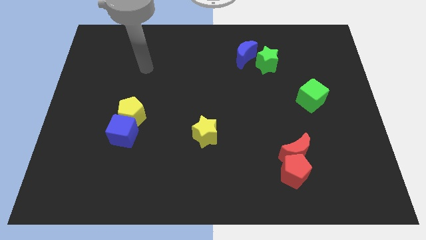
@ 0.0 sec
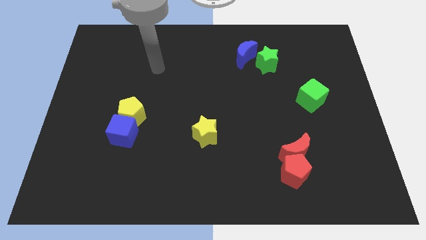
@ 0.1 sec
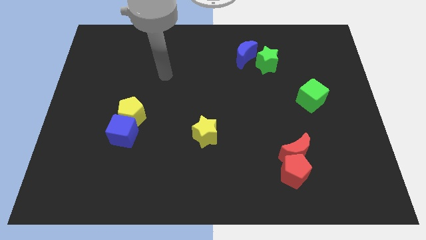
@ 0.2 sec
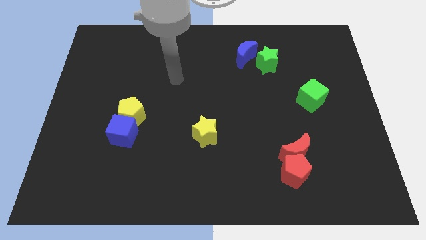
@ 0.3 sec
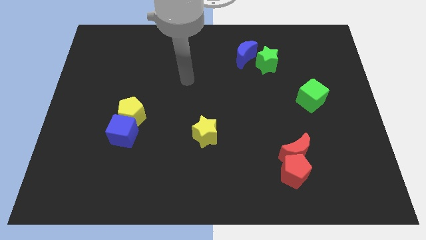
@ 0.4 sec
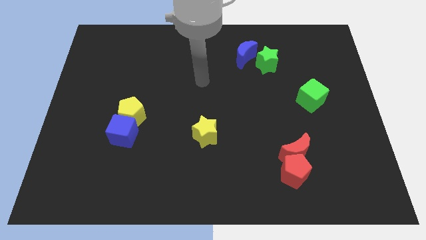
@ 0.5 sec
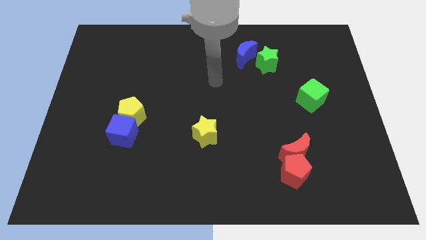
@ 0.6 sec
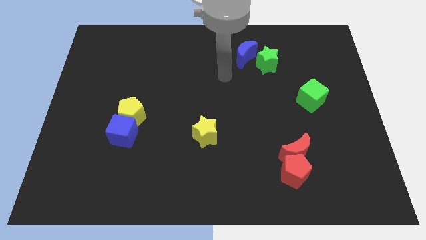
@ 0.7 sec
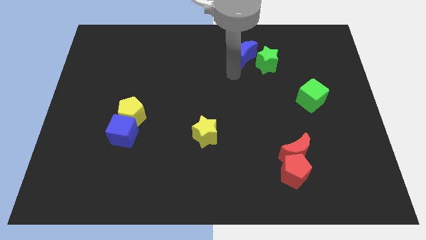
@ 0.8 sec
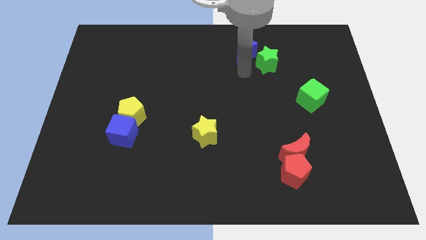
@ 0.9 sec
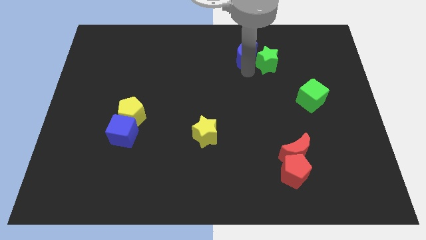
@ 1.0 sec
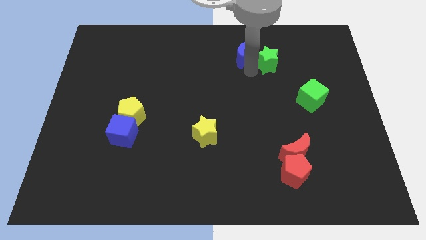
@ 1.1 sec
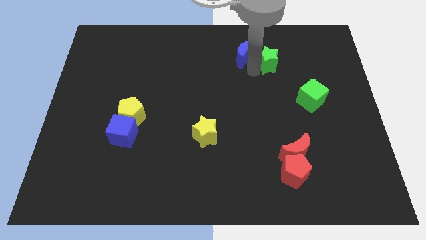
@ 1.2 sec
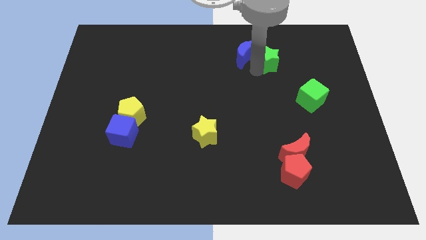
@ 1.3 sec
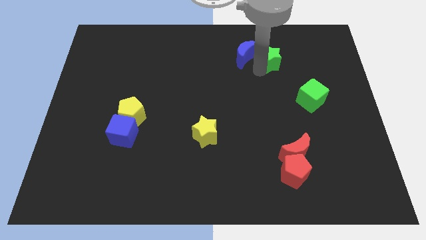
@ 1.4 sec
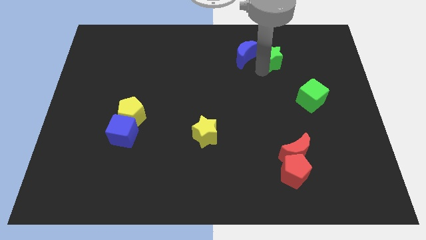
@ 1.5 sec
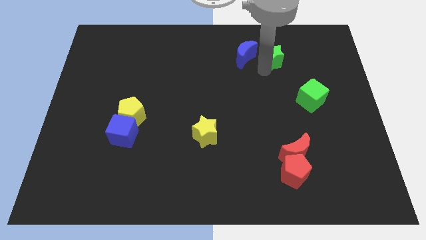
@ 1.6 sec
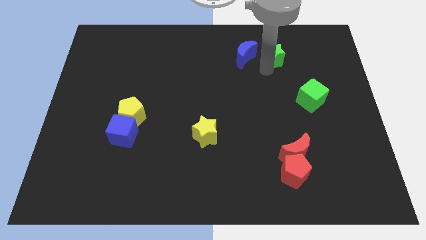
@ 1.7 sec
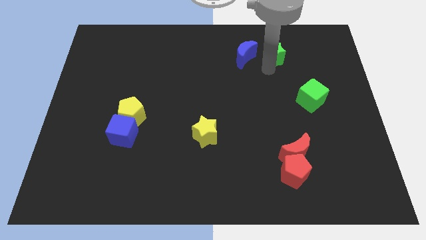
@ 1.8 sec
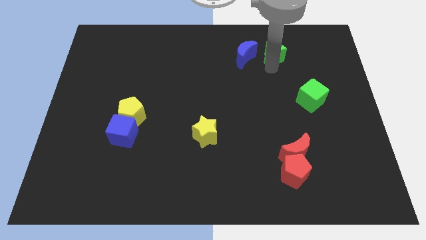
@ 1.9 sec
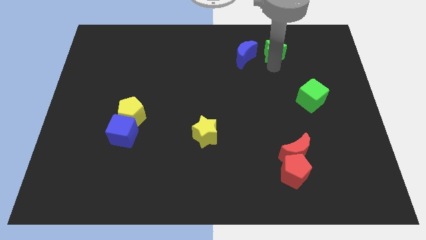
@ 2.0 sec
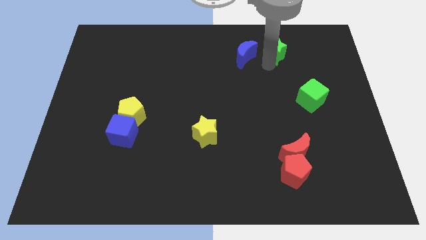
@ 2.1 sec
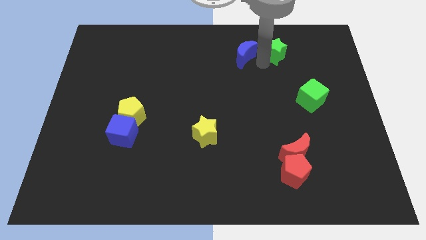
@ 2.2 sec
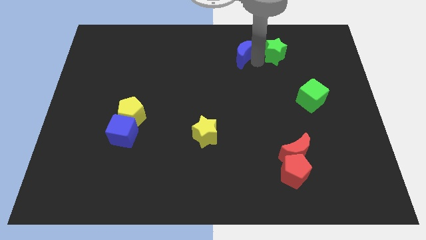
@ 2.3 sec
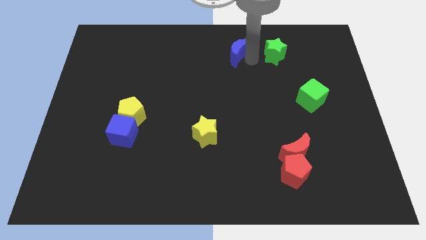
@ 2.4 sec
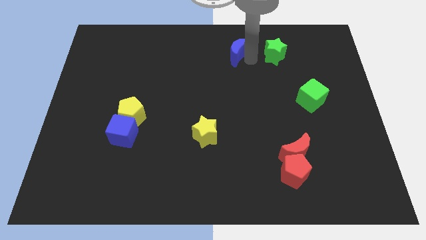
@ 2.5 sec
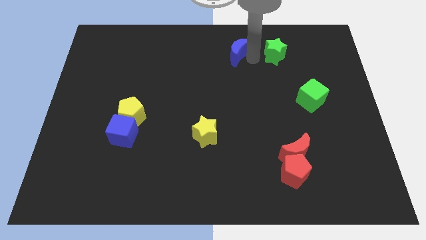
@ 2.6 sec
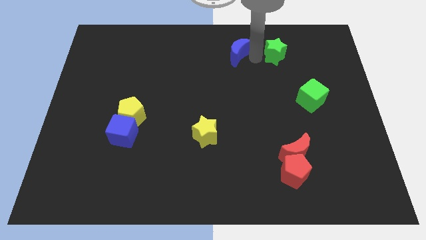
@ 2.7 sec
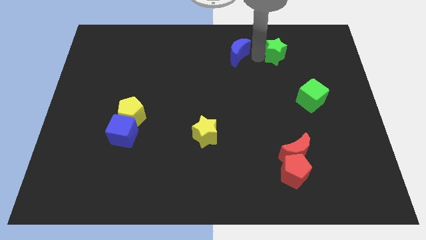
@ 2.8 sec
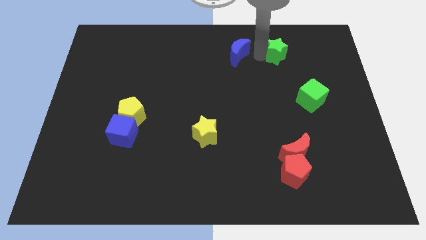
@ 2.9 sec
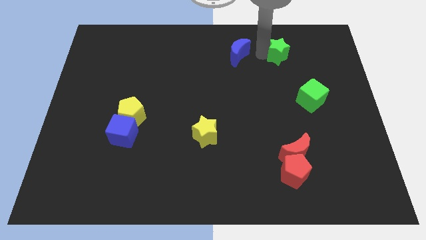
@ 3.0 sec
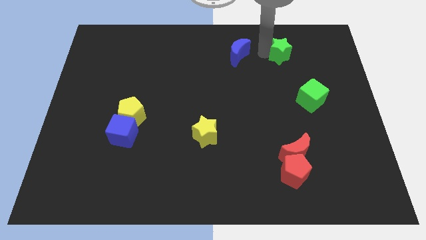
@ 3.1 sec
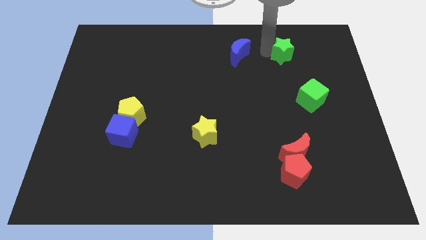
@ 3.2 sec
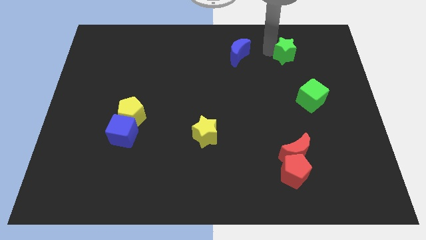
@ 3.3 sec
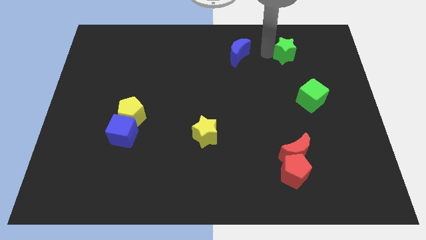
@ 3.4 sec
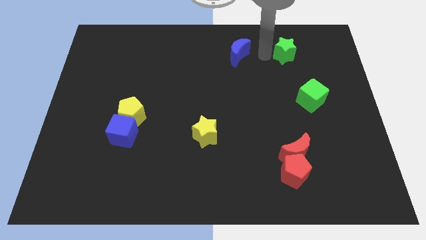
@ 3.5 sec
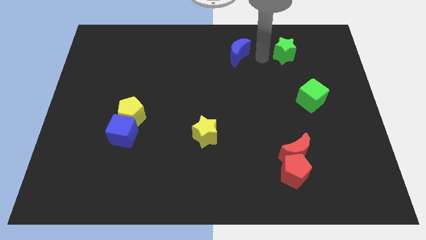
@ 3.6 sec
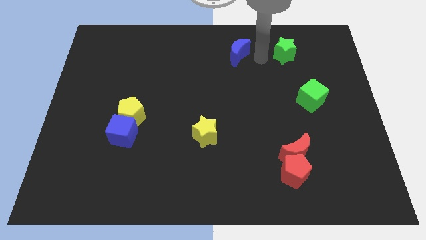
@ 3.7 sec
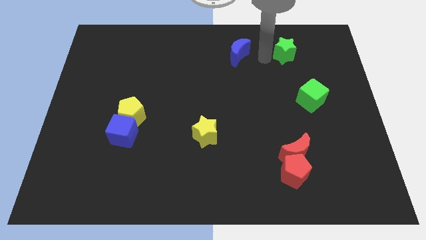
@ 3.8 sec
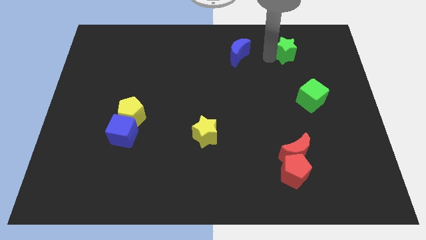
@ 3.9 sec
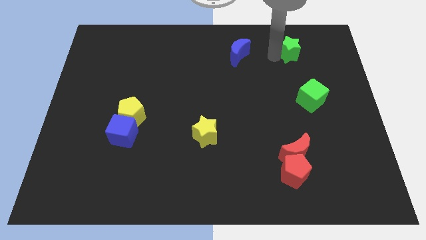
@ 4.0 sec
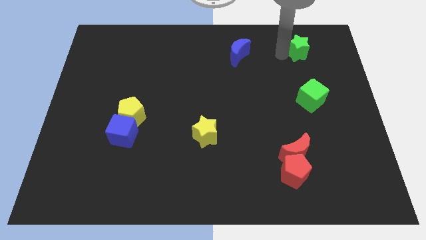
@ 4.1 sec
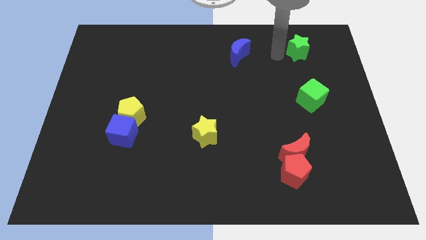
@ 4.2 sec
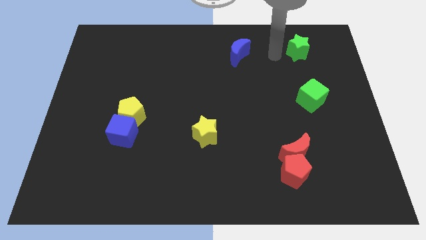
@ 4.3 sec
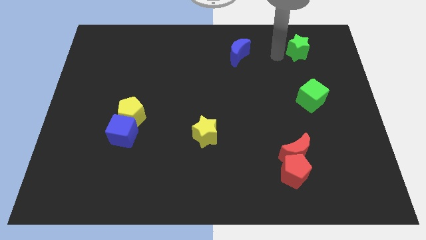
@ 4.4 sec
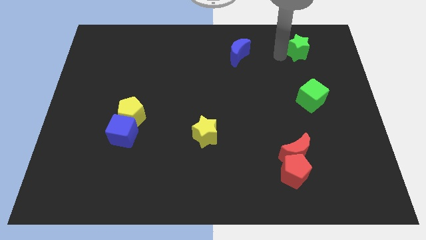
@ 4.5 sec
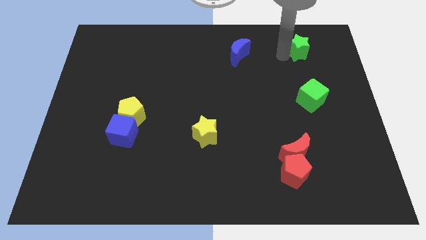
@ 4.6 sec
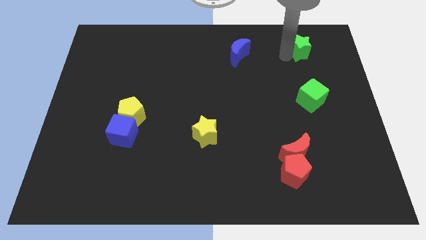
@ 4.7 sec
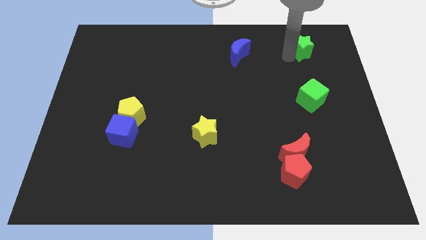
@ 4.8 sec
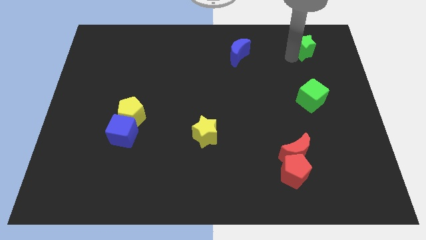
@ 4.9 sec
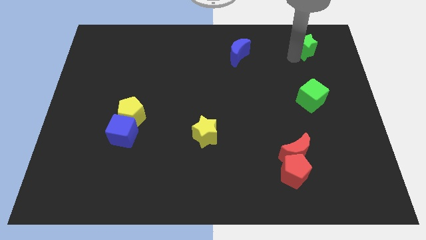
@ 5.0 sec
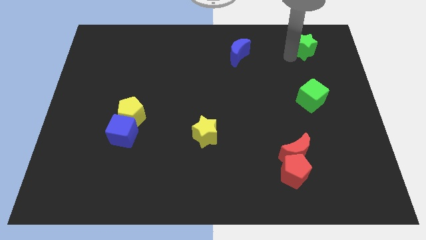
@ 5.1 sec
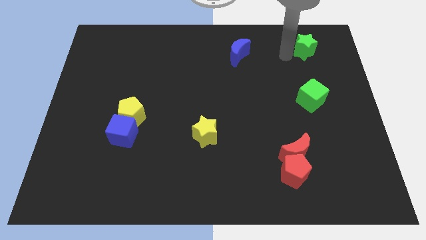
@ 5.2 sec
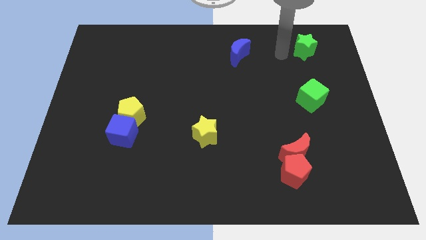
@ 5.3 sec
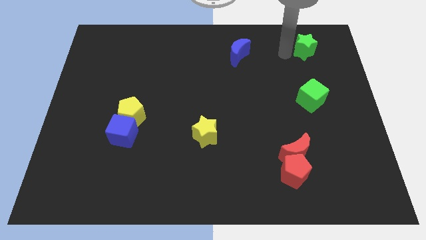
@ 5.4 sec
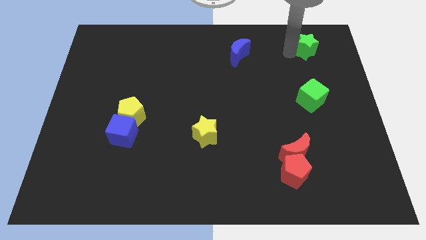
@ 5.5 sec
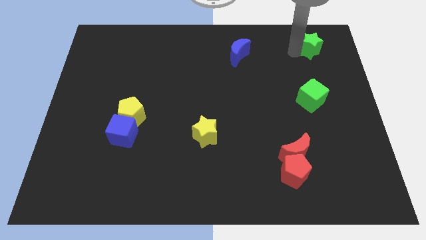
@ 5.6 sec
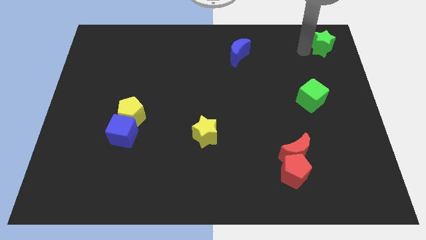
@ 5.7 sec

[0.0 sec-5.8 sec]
move the green star to the top right of the board
